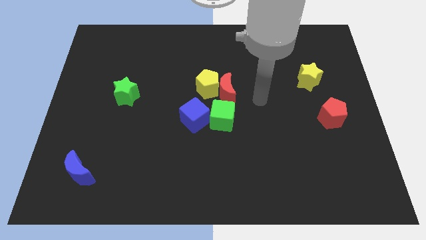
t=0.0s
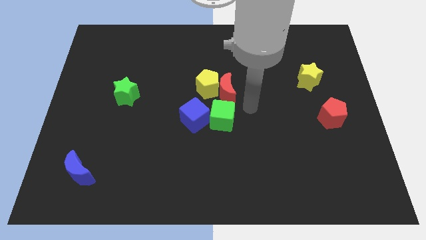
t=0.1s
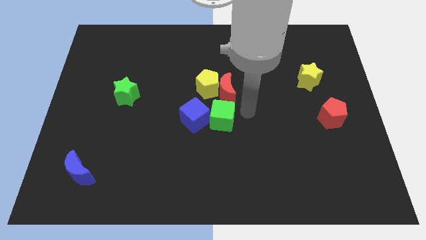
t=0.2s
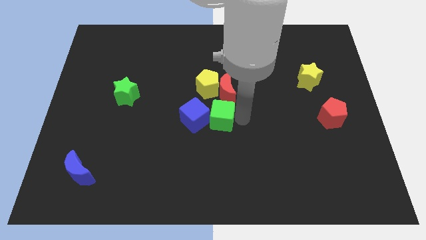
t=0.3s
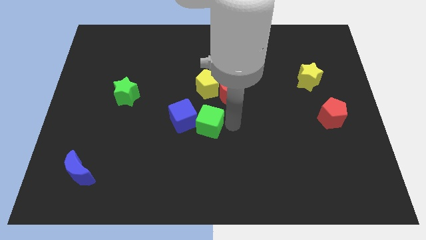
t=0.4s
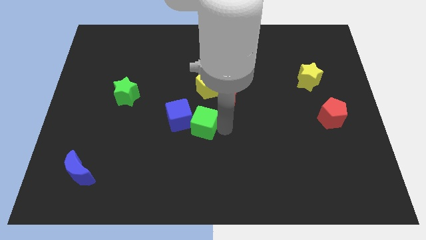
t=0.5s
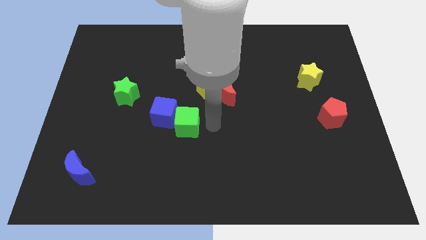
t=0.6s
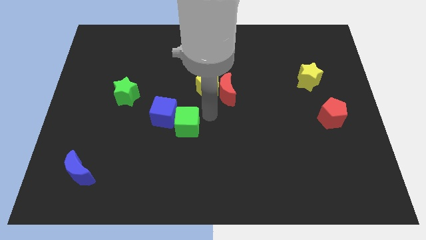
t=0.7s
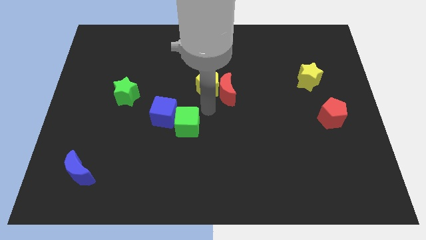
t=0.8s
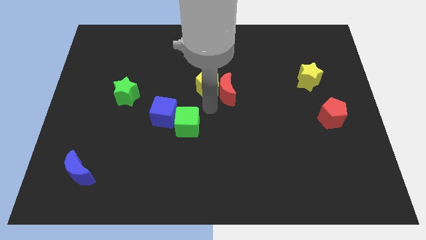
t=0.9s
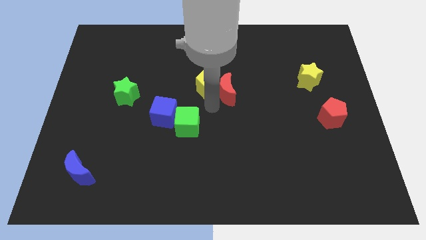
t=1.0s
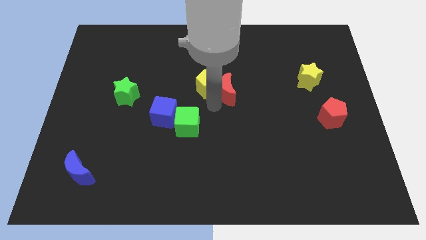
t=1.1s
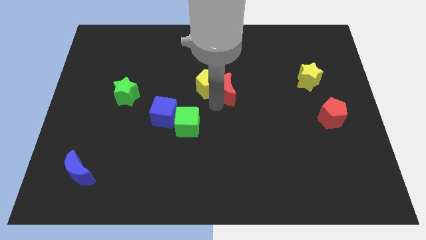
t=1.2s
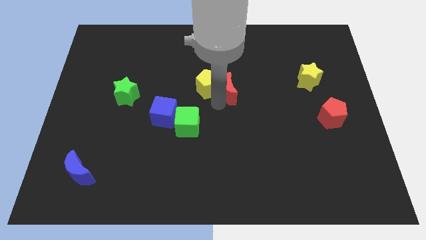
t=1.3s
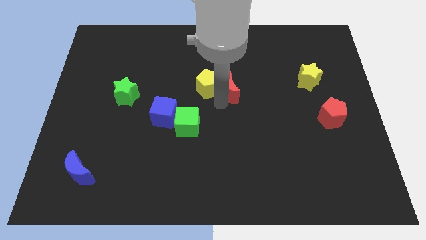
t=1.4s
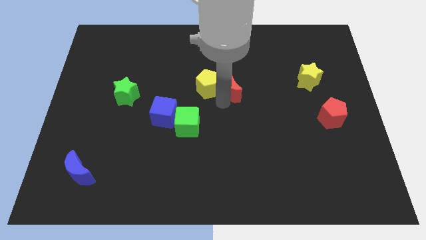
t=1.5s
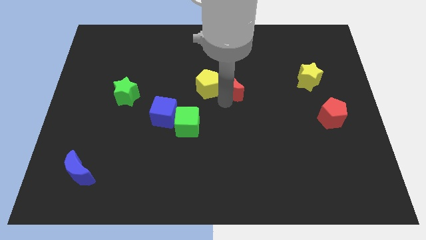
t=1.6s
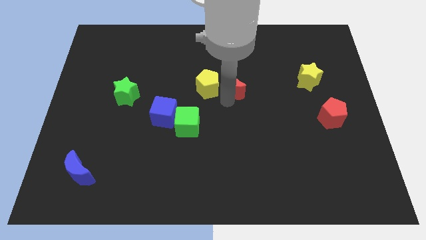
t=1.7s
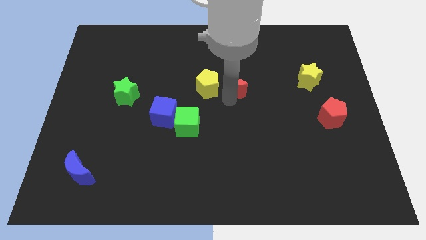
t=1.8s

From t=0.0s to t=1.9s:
separate the red moon from the yellow pentagon and green cube

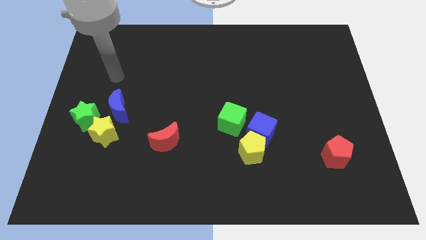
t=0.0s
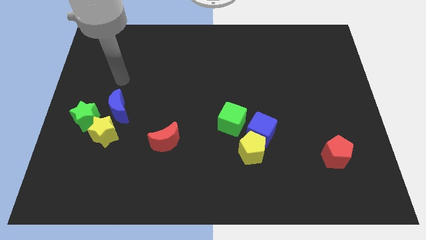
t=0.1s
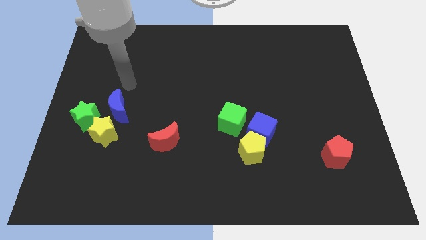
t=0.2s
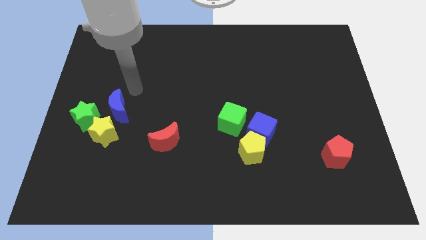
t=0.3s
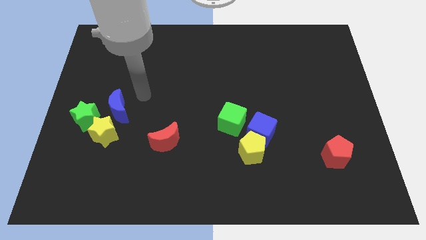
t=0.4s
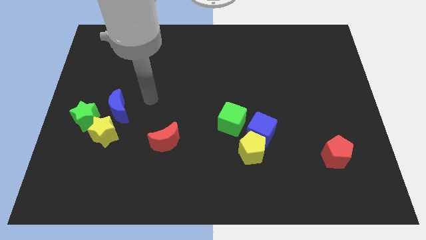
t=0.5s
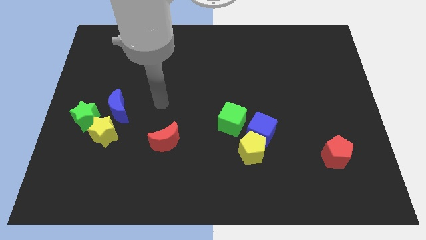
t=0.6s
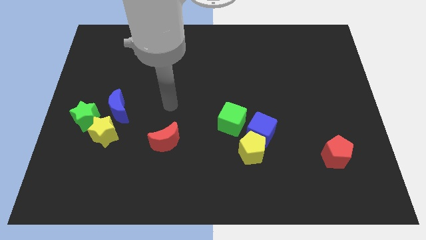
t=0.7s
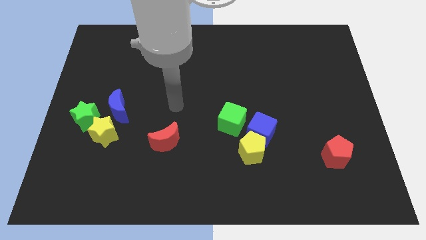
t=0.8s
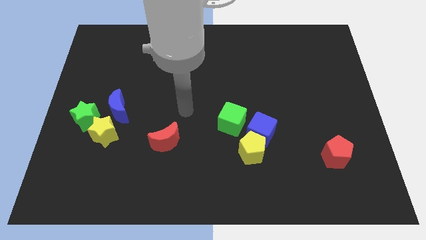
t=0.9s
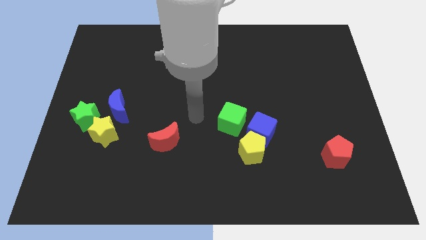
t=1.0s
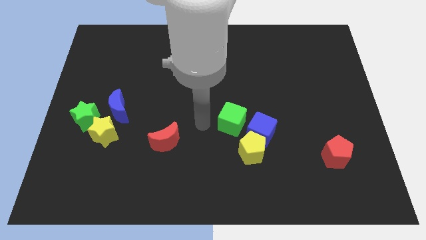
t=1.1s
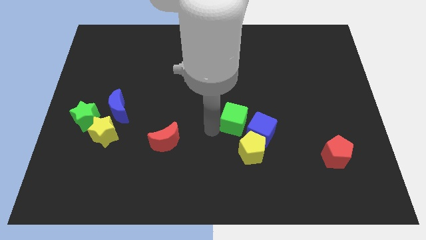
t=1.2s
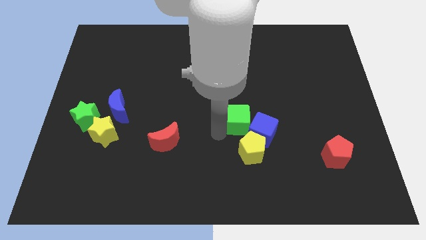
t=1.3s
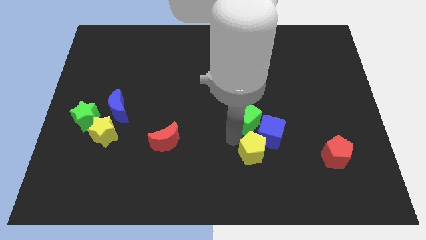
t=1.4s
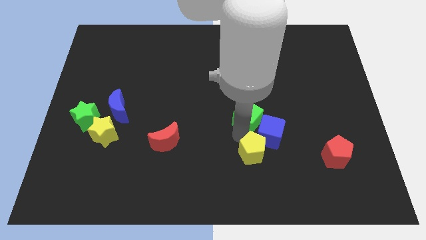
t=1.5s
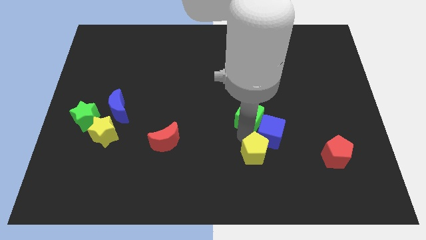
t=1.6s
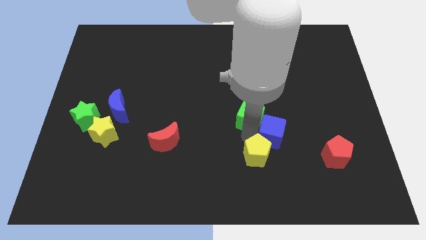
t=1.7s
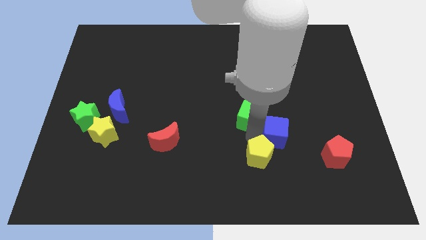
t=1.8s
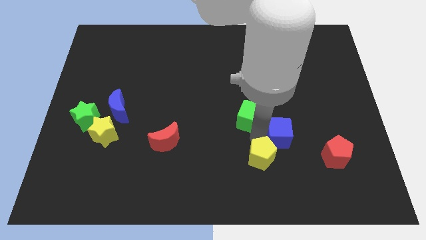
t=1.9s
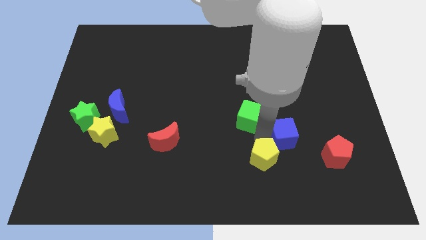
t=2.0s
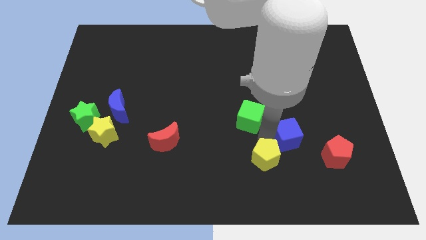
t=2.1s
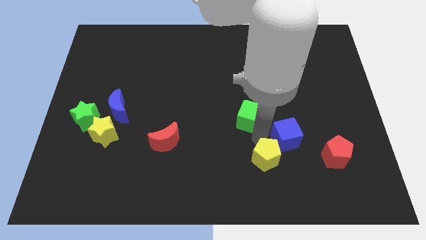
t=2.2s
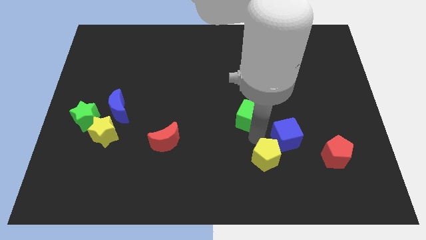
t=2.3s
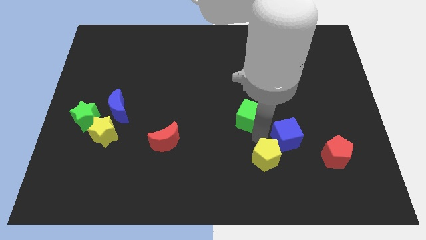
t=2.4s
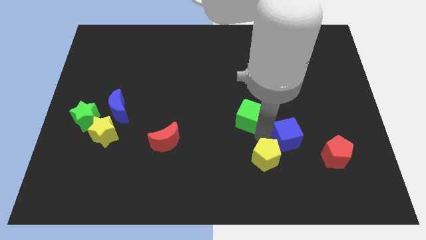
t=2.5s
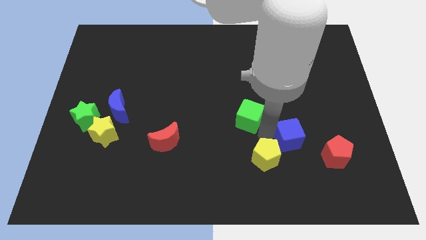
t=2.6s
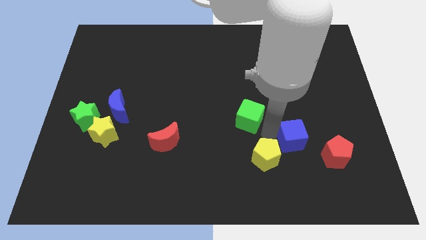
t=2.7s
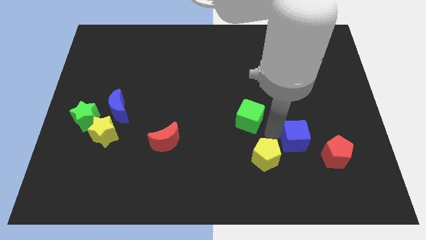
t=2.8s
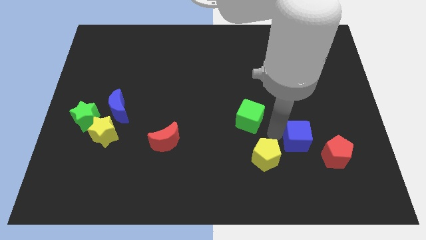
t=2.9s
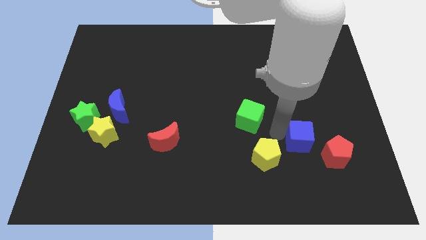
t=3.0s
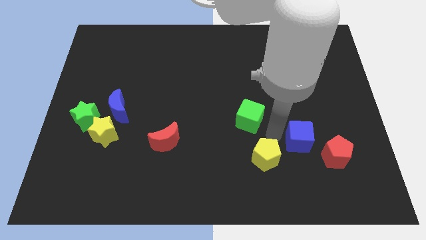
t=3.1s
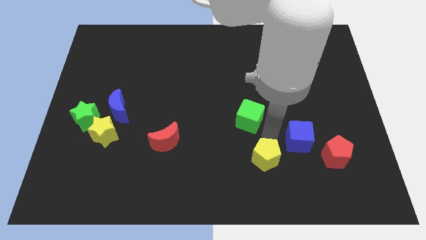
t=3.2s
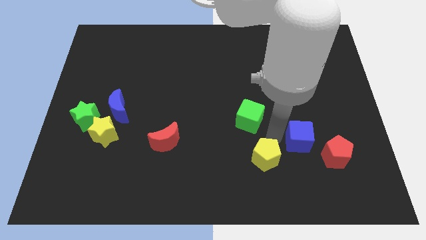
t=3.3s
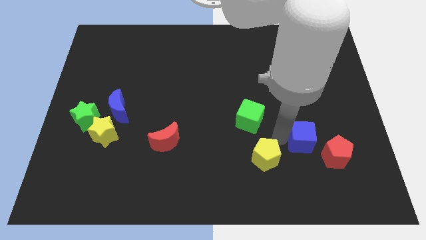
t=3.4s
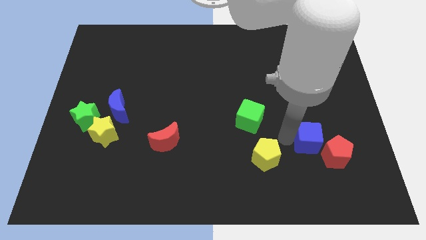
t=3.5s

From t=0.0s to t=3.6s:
pull the blue cube apart from the yellow pentagon and green cube

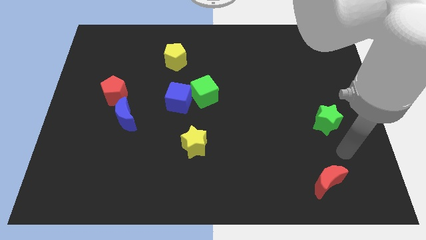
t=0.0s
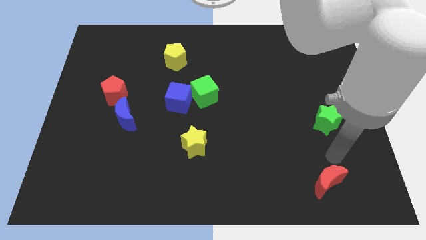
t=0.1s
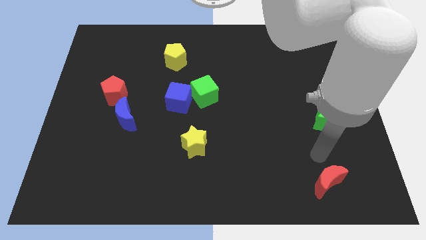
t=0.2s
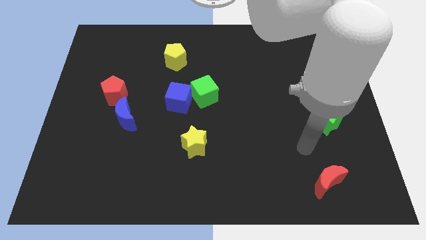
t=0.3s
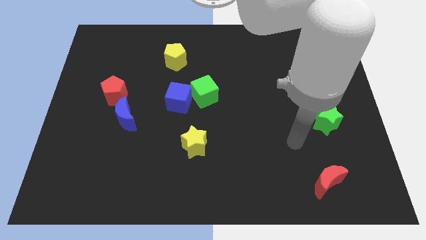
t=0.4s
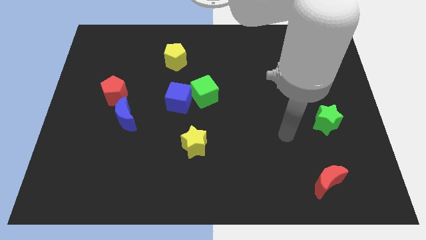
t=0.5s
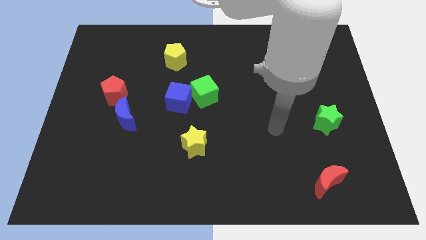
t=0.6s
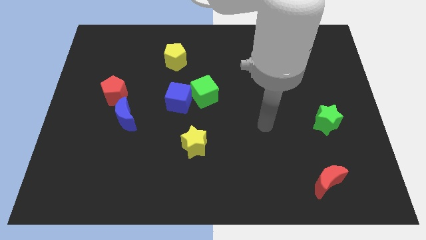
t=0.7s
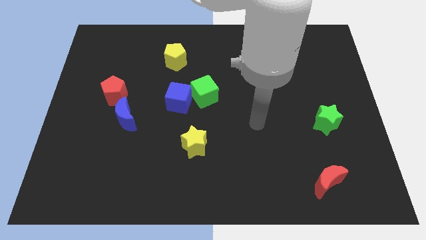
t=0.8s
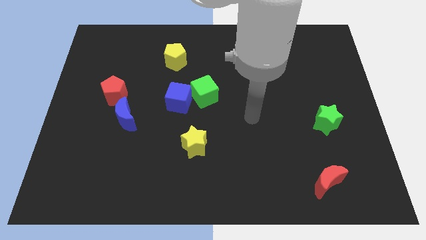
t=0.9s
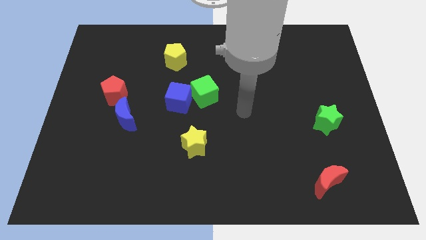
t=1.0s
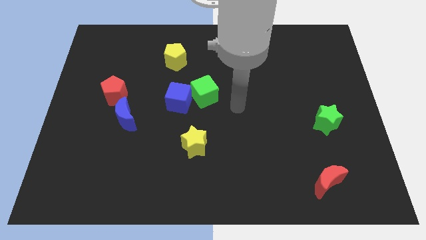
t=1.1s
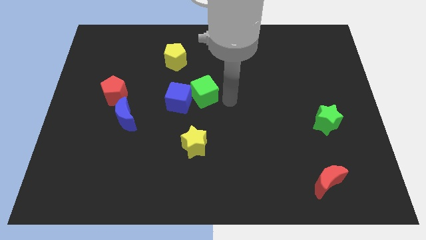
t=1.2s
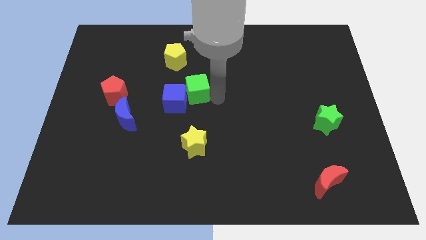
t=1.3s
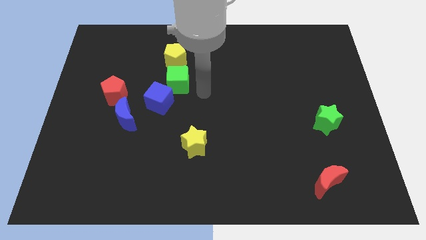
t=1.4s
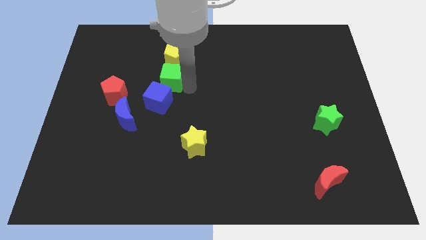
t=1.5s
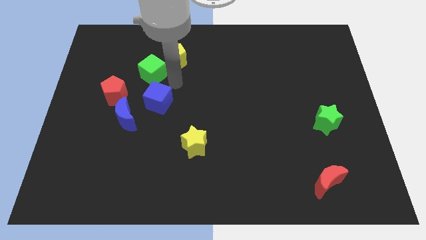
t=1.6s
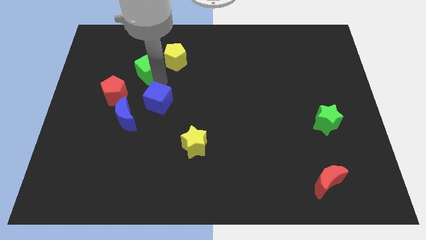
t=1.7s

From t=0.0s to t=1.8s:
pull the blue cube apart from the green cube

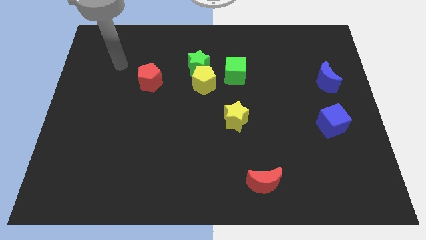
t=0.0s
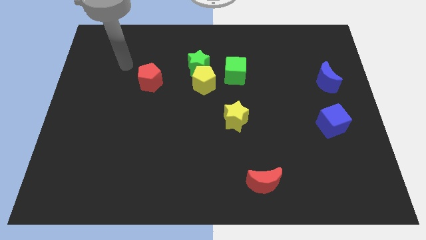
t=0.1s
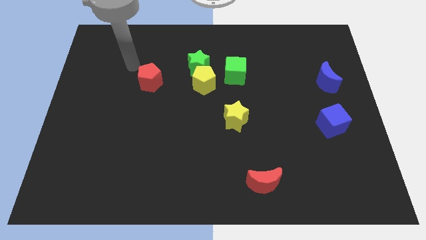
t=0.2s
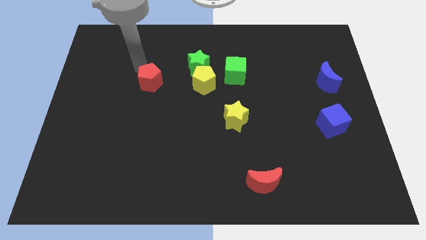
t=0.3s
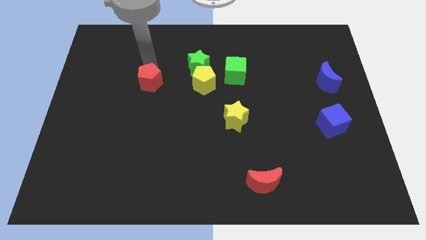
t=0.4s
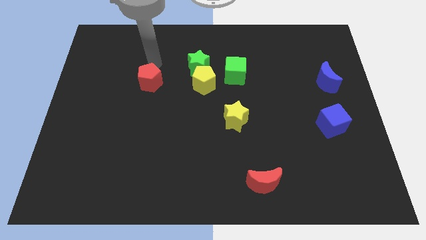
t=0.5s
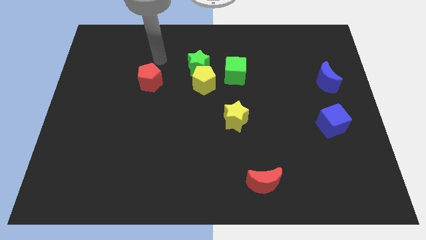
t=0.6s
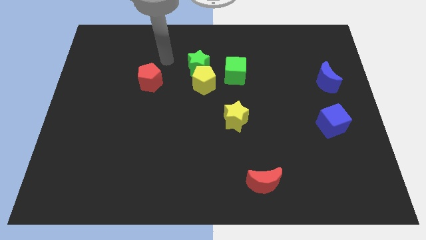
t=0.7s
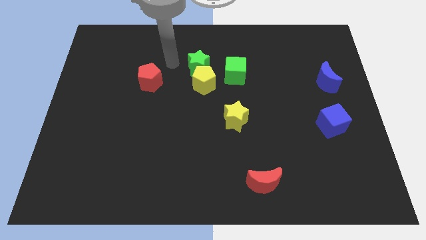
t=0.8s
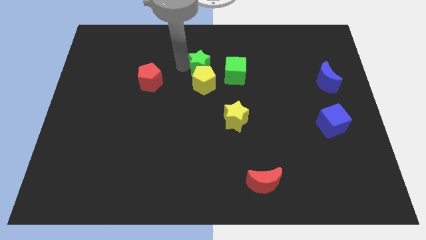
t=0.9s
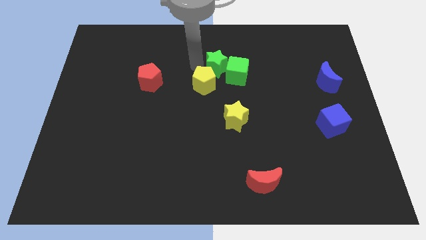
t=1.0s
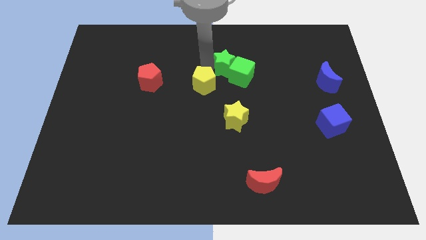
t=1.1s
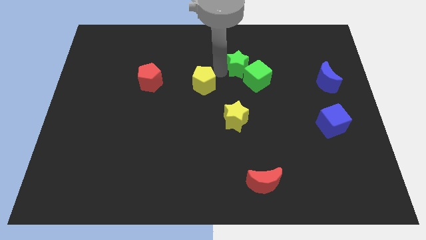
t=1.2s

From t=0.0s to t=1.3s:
move the yellow pentagon away from the green star and green cube

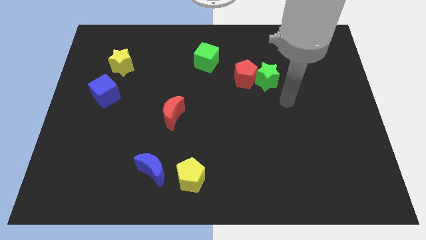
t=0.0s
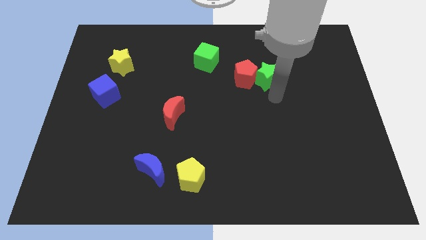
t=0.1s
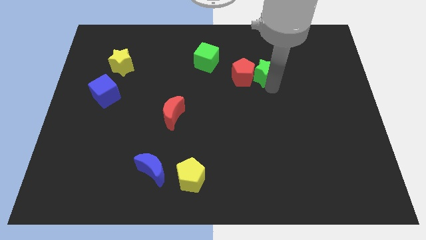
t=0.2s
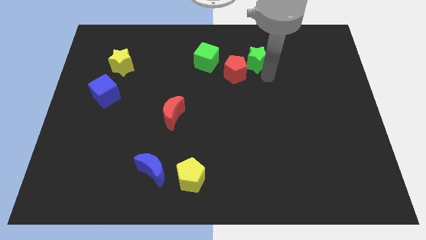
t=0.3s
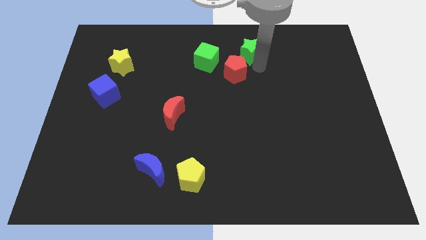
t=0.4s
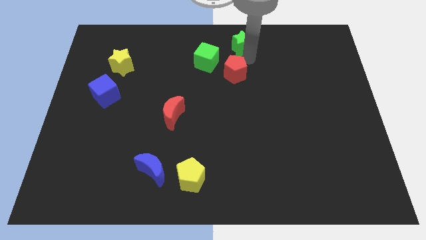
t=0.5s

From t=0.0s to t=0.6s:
separate the red pentagon from the green star

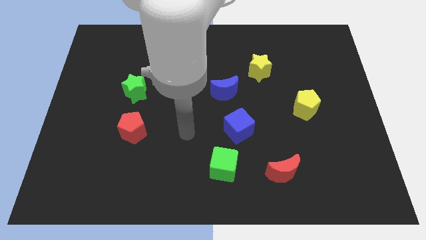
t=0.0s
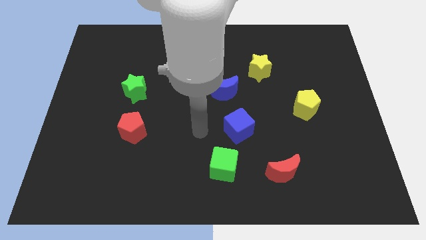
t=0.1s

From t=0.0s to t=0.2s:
separate the blue cube from the green cube

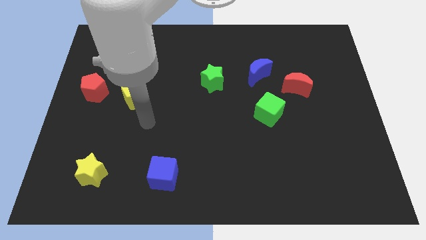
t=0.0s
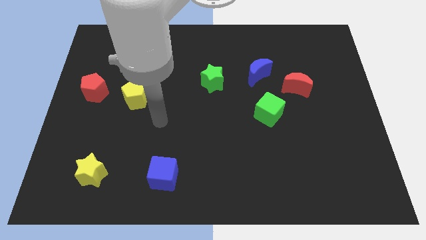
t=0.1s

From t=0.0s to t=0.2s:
separate the red moon from the blue moon
